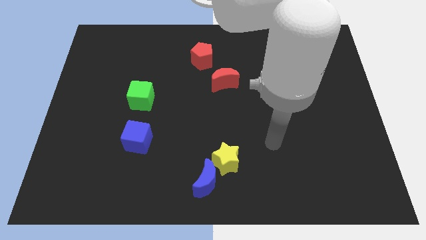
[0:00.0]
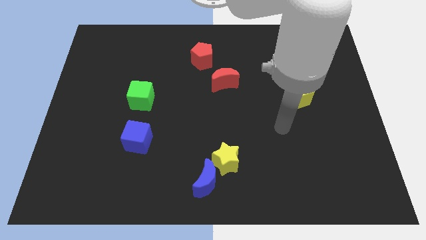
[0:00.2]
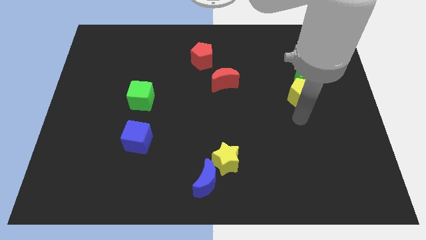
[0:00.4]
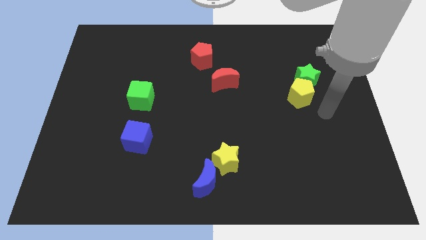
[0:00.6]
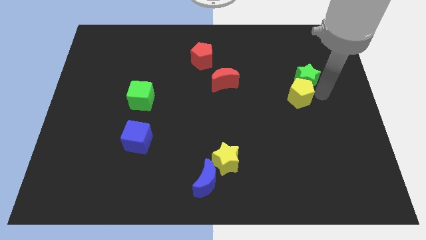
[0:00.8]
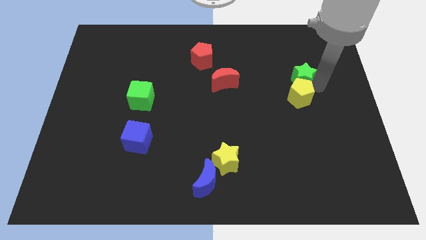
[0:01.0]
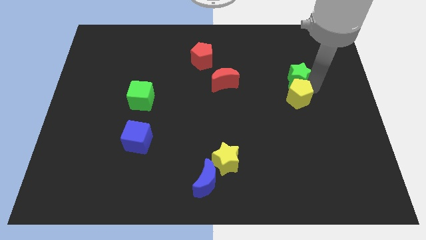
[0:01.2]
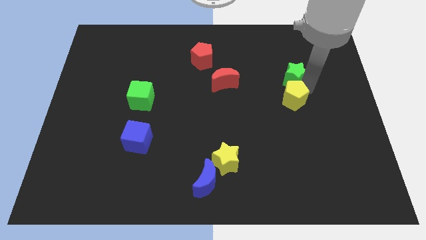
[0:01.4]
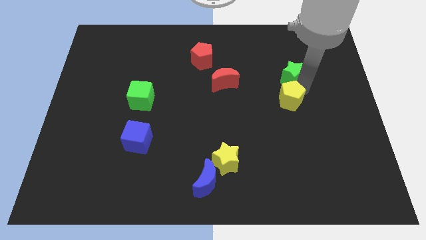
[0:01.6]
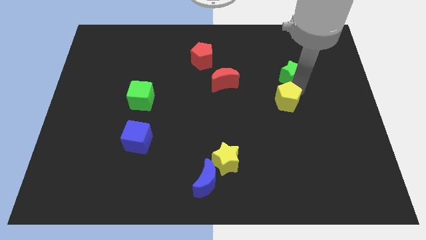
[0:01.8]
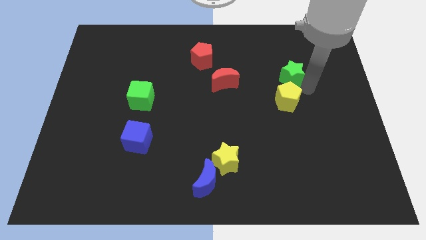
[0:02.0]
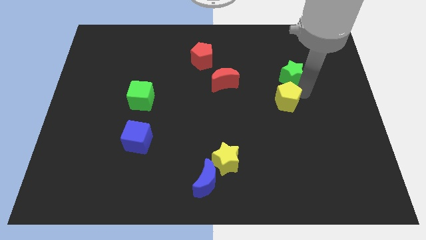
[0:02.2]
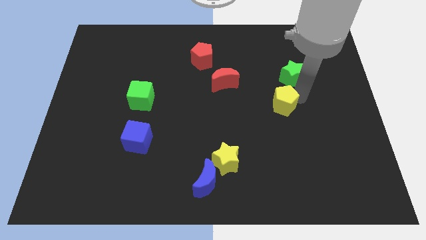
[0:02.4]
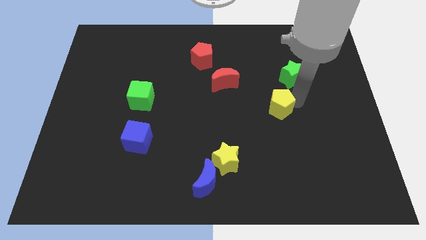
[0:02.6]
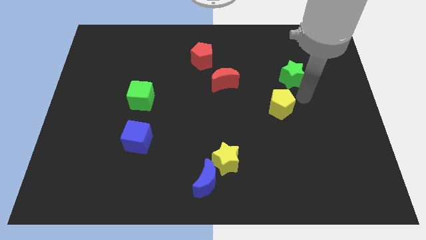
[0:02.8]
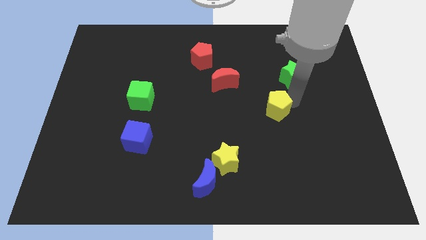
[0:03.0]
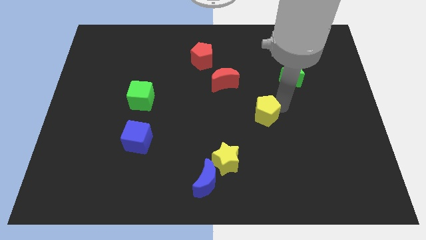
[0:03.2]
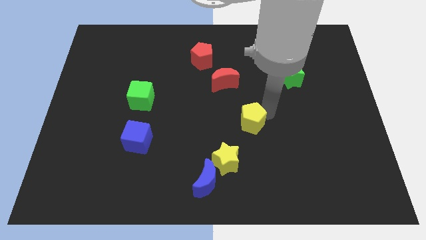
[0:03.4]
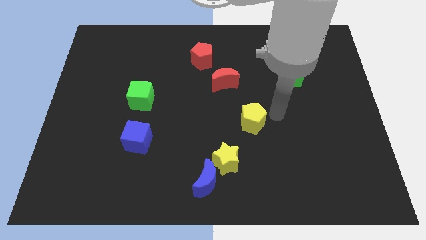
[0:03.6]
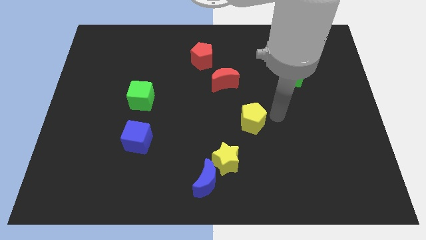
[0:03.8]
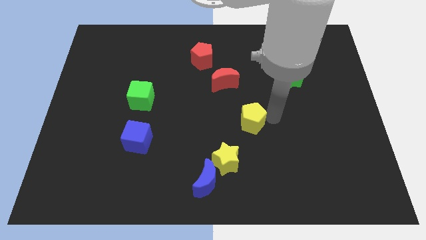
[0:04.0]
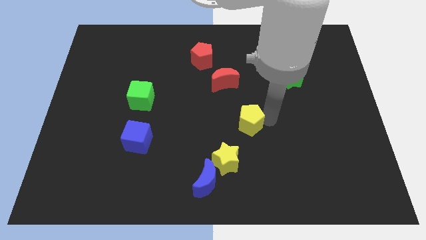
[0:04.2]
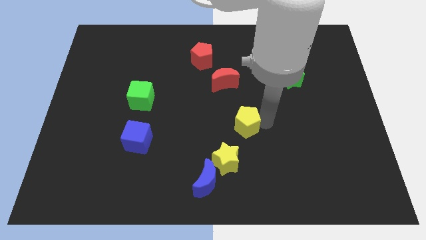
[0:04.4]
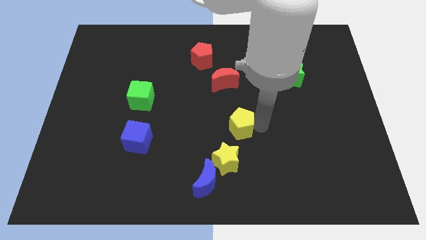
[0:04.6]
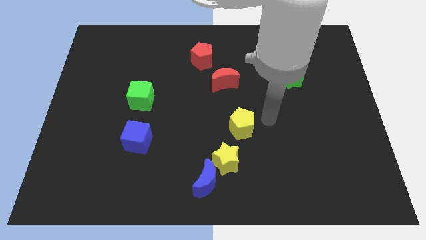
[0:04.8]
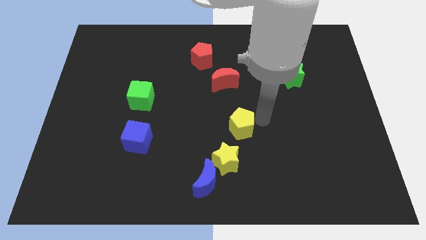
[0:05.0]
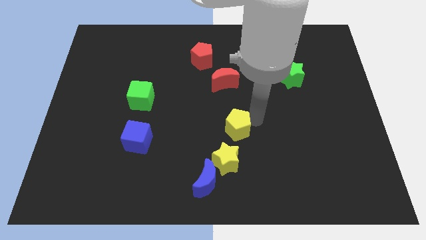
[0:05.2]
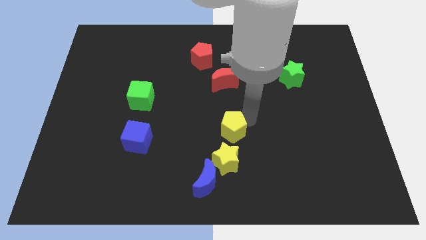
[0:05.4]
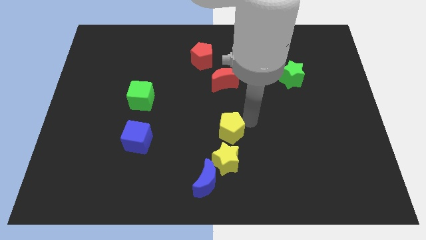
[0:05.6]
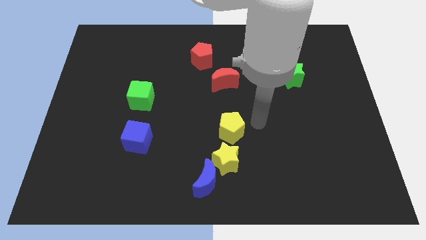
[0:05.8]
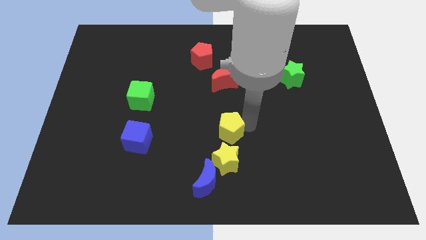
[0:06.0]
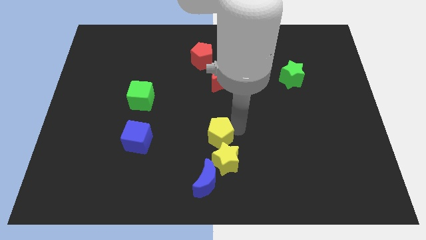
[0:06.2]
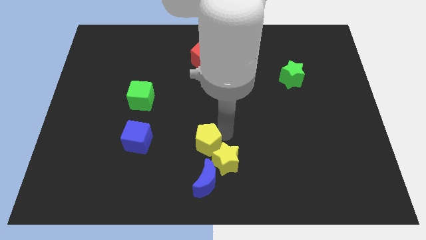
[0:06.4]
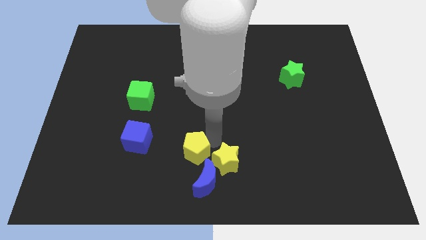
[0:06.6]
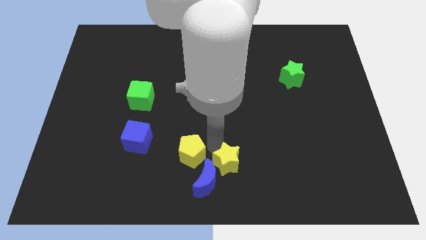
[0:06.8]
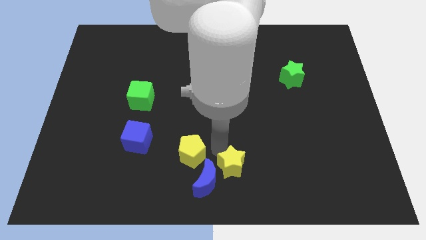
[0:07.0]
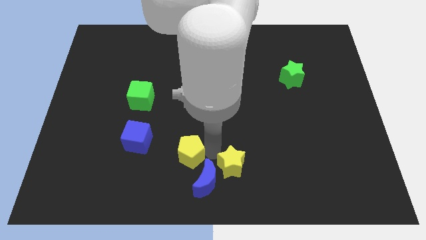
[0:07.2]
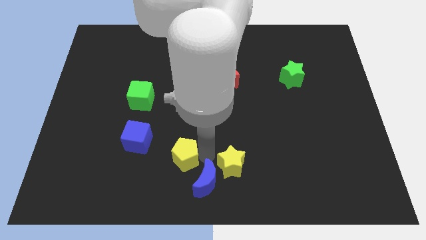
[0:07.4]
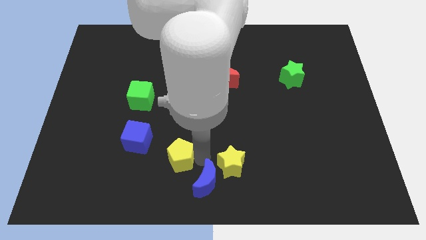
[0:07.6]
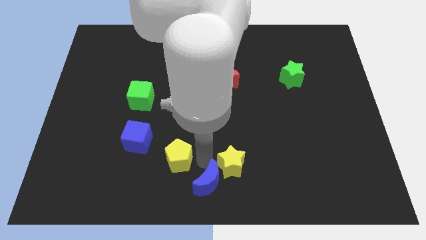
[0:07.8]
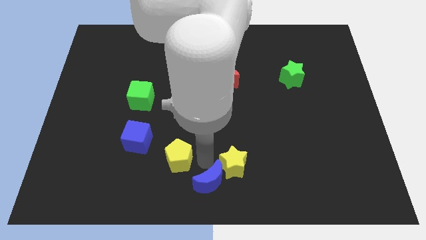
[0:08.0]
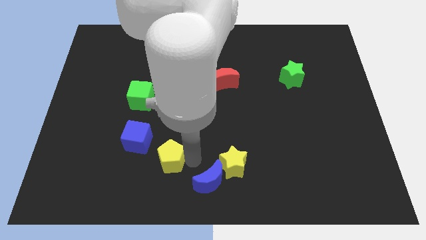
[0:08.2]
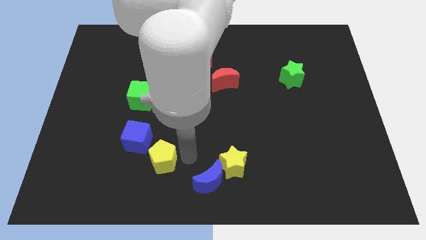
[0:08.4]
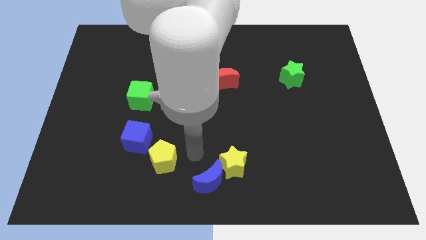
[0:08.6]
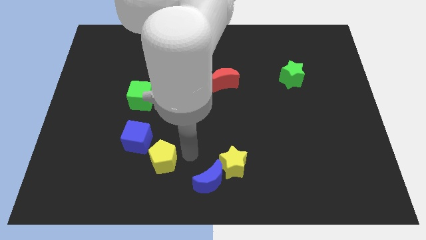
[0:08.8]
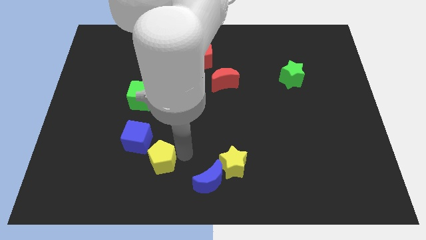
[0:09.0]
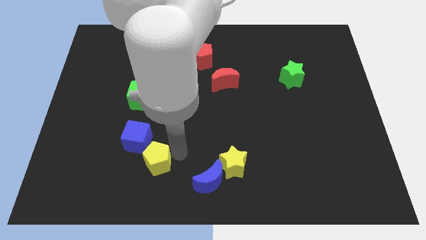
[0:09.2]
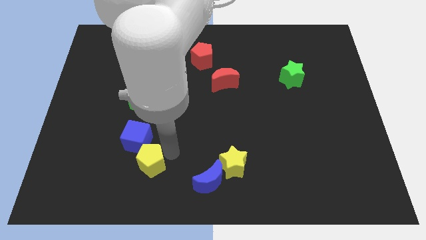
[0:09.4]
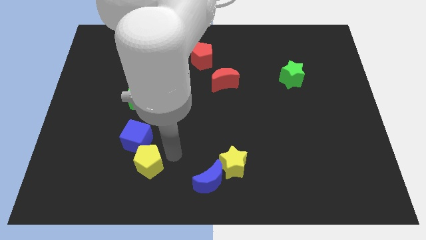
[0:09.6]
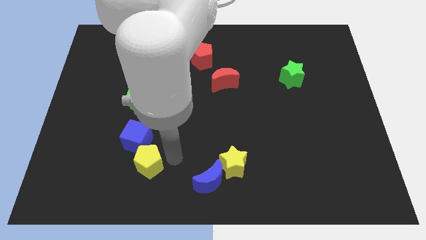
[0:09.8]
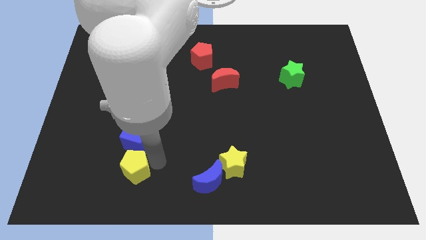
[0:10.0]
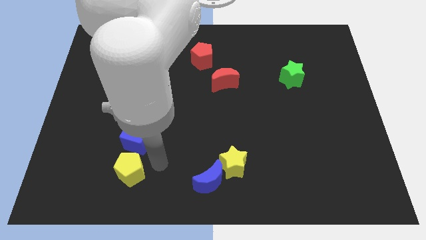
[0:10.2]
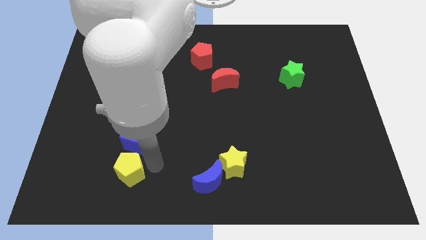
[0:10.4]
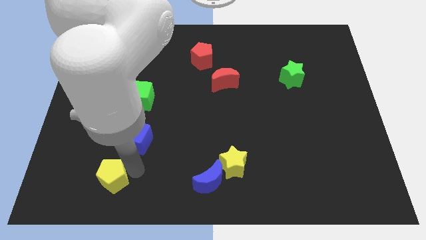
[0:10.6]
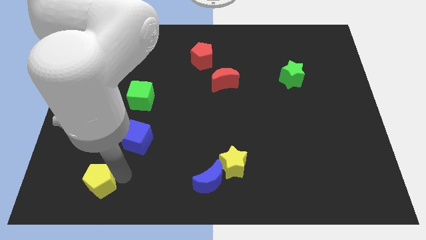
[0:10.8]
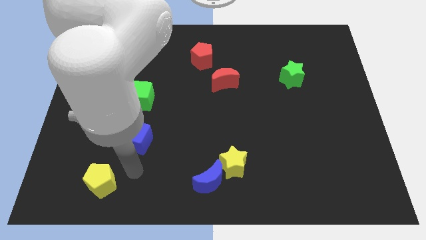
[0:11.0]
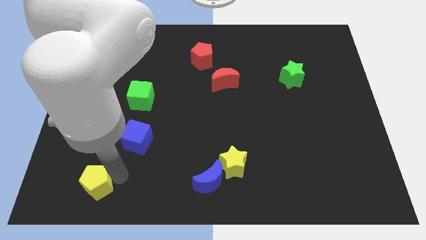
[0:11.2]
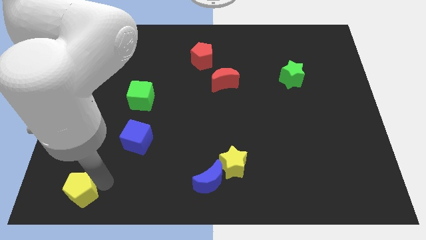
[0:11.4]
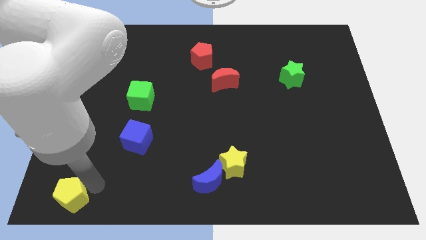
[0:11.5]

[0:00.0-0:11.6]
push the yellow pentagon to the bottom left corner

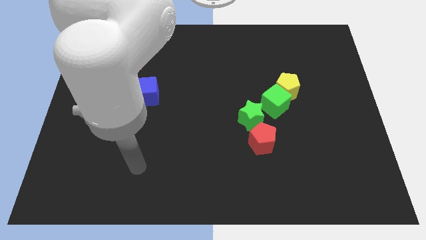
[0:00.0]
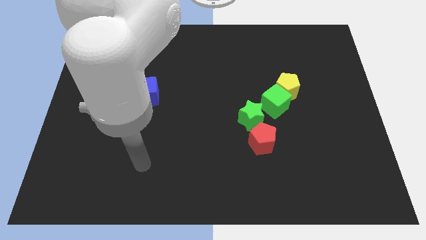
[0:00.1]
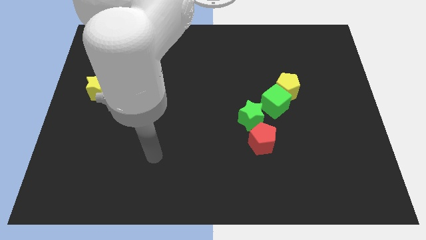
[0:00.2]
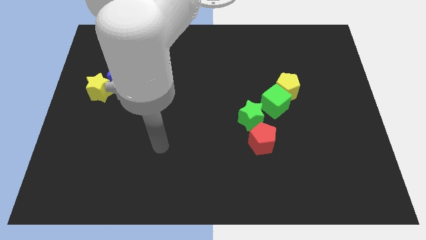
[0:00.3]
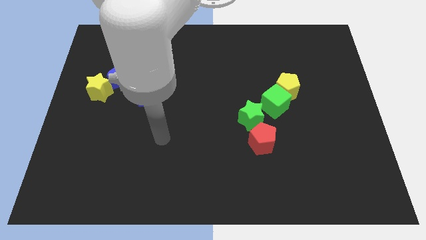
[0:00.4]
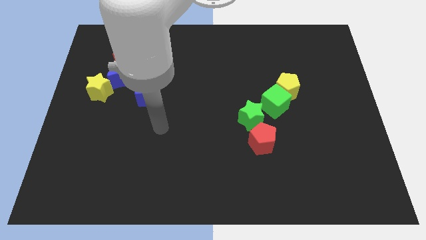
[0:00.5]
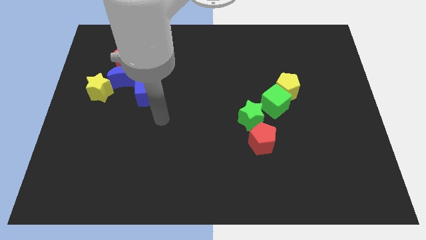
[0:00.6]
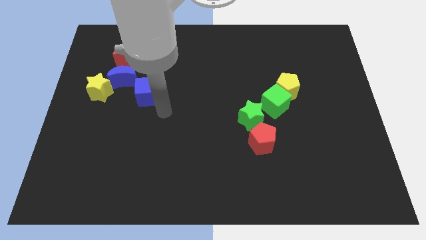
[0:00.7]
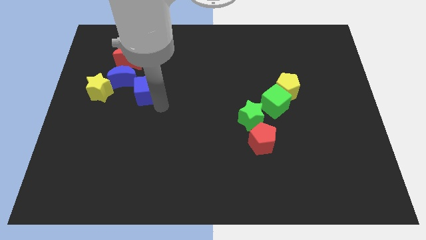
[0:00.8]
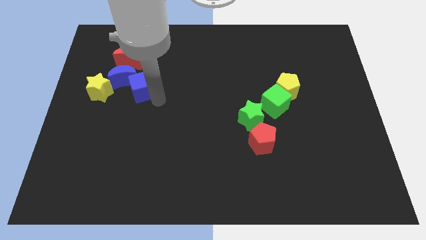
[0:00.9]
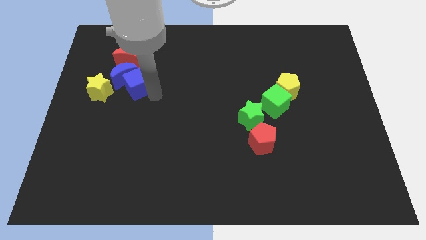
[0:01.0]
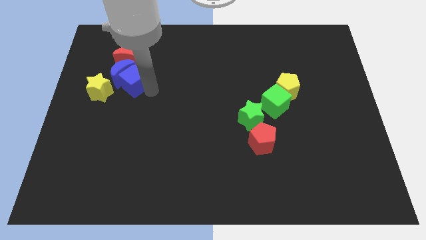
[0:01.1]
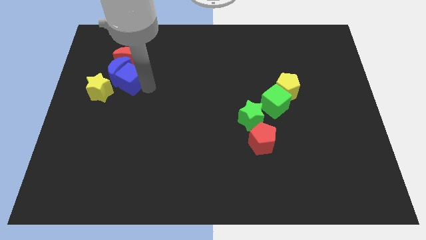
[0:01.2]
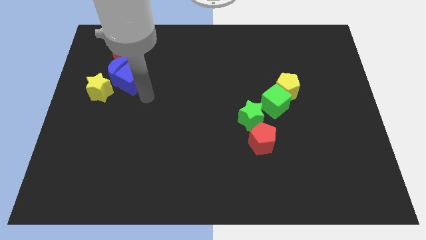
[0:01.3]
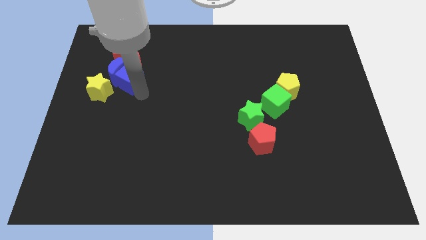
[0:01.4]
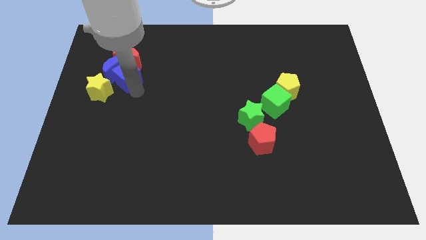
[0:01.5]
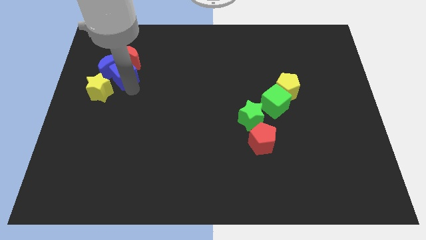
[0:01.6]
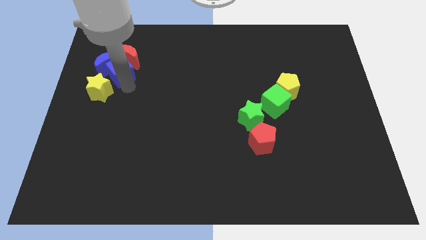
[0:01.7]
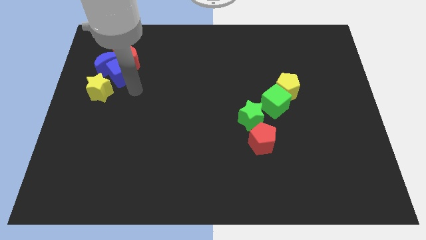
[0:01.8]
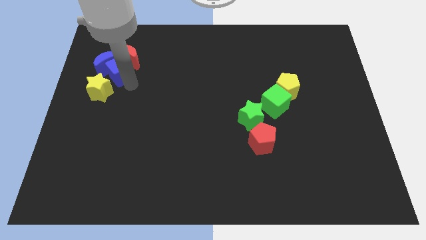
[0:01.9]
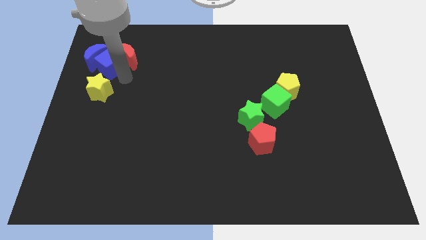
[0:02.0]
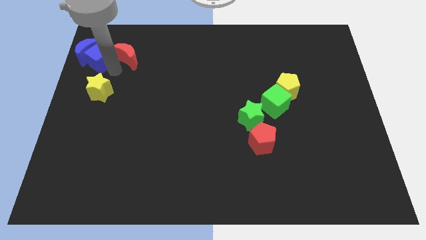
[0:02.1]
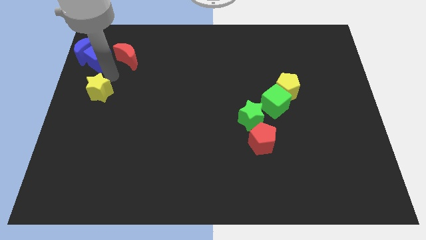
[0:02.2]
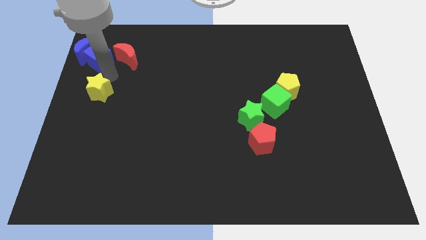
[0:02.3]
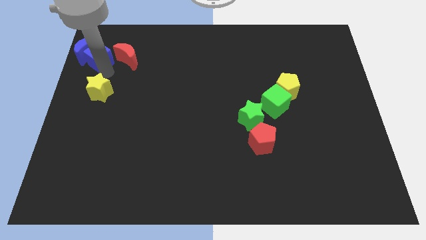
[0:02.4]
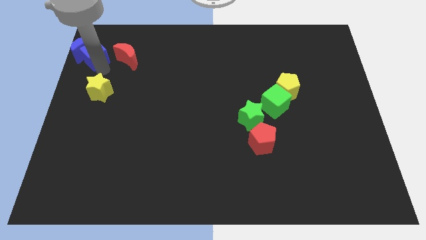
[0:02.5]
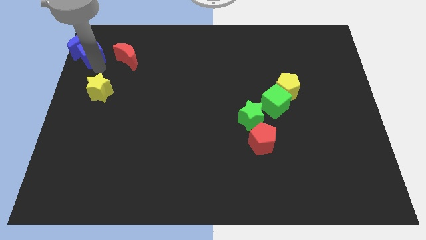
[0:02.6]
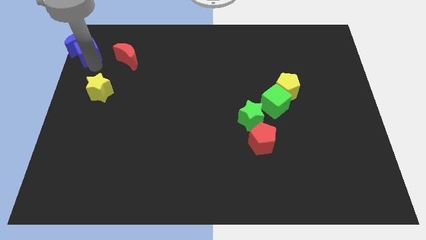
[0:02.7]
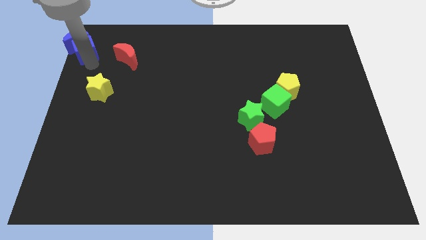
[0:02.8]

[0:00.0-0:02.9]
move the blue cube to the top left corner
